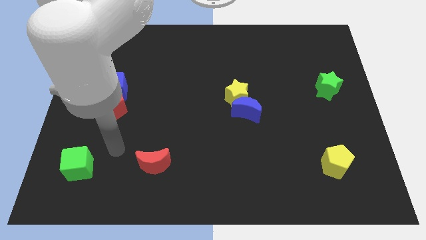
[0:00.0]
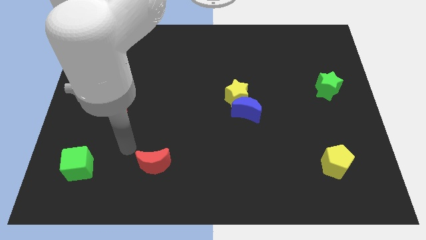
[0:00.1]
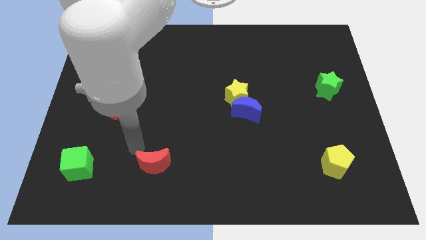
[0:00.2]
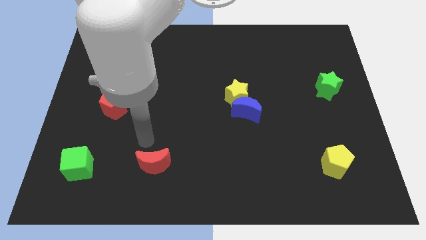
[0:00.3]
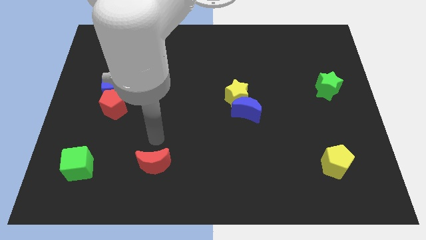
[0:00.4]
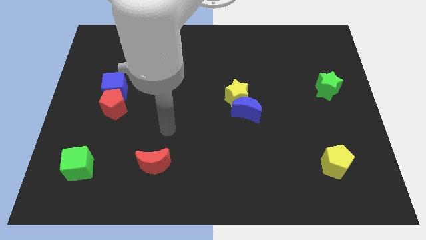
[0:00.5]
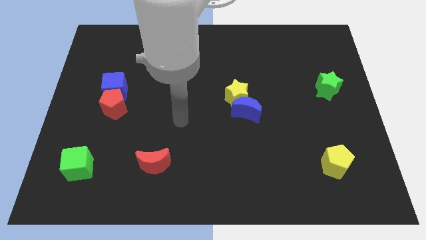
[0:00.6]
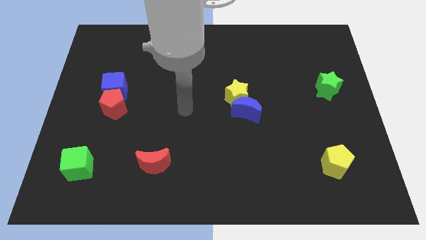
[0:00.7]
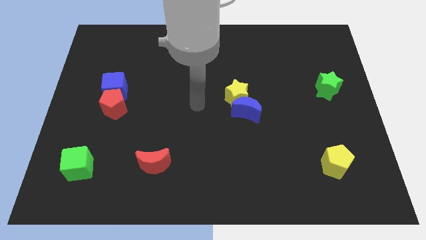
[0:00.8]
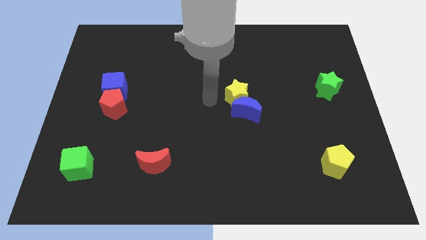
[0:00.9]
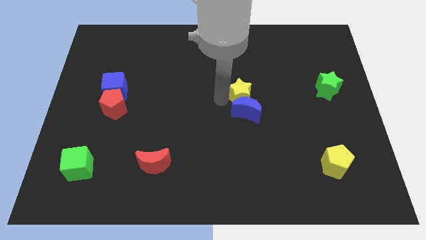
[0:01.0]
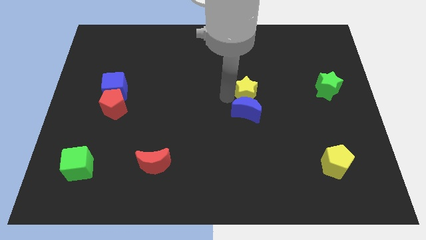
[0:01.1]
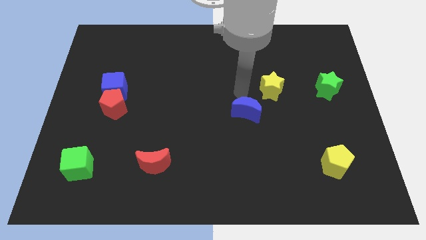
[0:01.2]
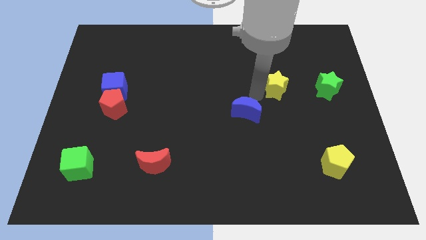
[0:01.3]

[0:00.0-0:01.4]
pull the blue moon apart from the yellow star

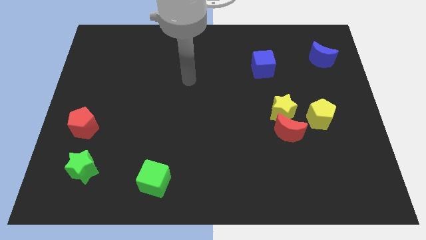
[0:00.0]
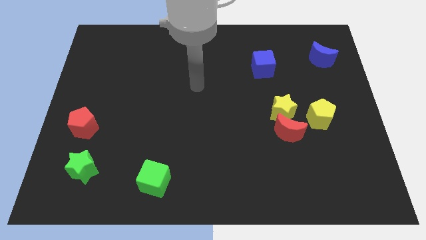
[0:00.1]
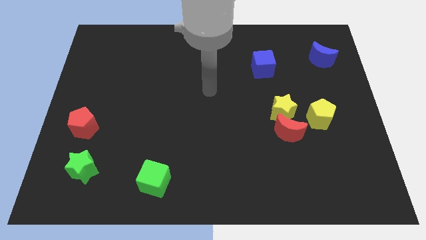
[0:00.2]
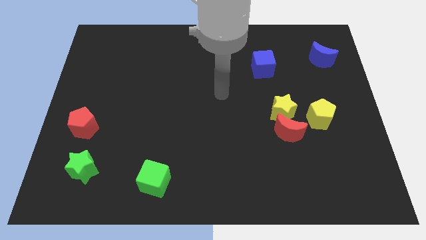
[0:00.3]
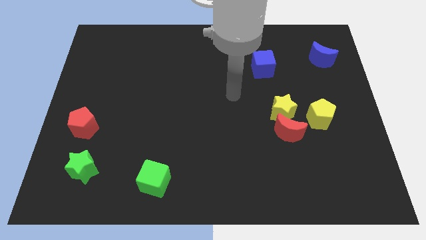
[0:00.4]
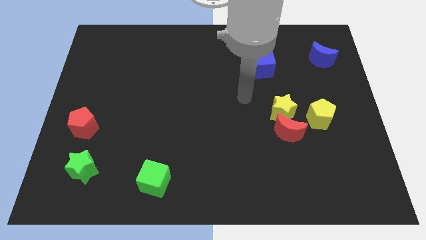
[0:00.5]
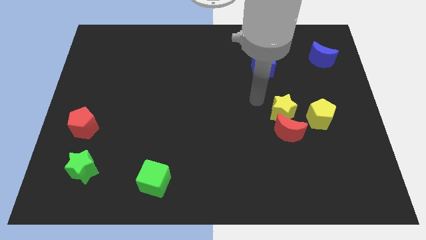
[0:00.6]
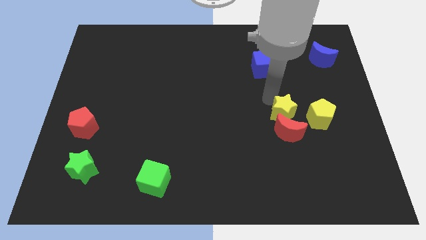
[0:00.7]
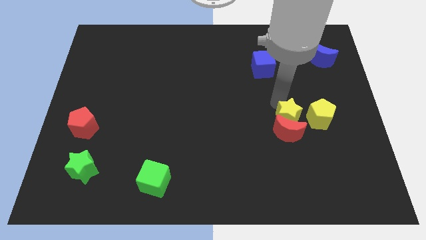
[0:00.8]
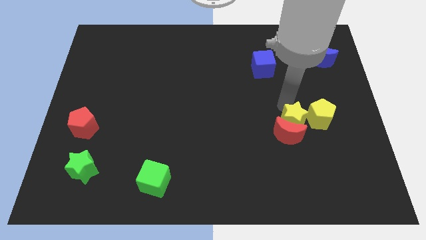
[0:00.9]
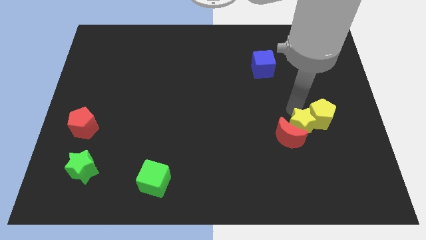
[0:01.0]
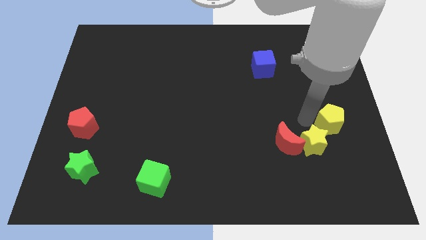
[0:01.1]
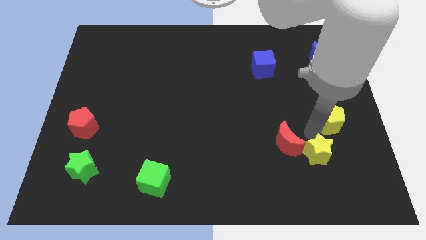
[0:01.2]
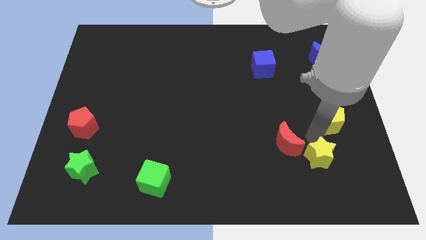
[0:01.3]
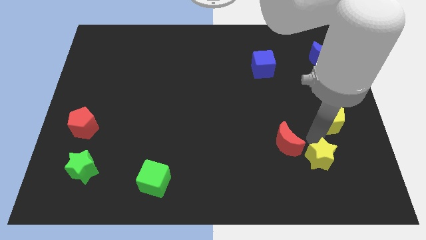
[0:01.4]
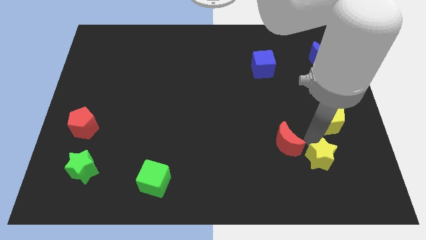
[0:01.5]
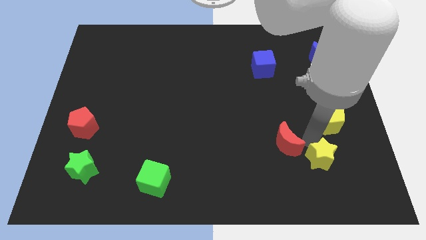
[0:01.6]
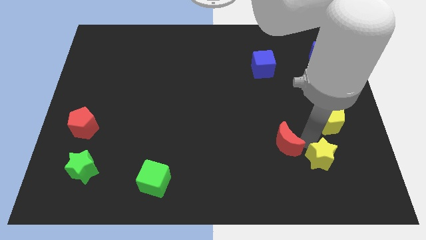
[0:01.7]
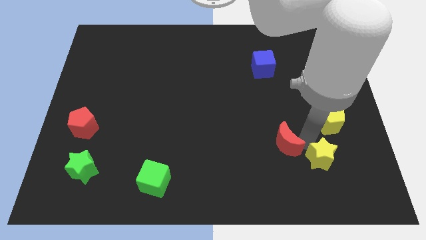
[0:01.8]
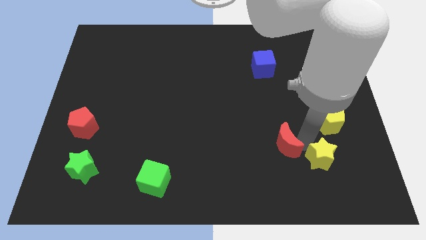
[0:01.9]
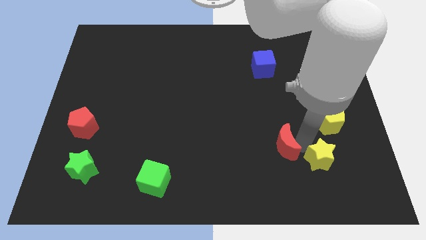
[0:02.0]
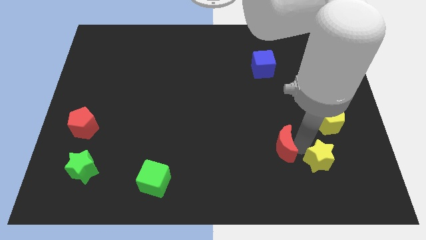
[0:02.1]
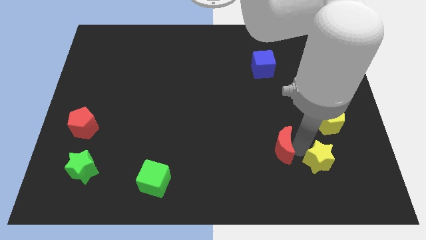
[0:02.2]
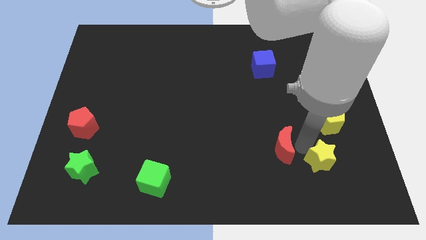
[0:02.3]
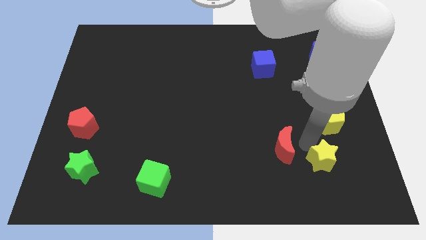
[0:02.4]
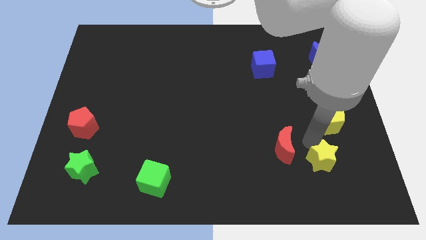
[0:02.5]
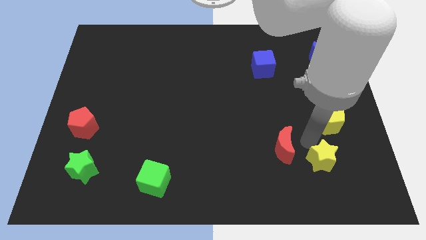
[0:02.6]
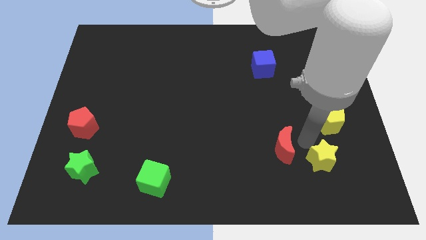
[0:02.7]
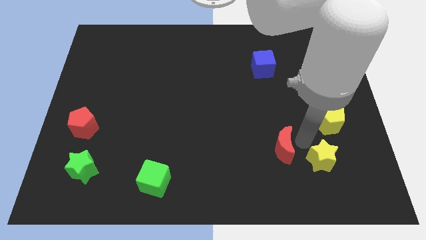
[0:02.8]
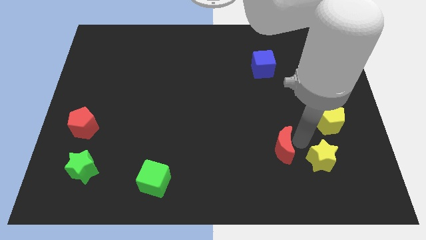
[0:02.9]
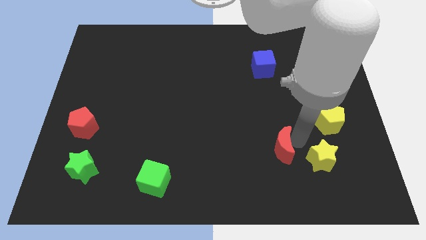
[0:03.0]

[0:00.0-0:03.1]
move the red moon away from the yellow star and yellow pentagon

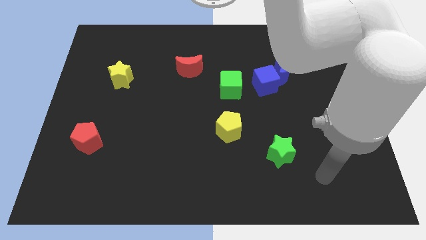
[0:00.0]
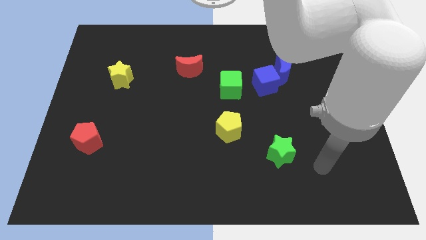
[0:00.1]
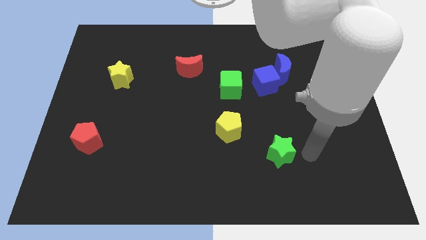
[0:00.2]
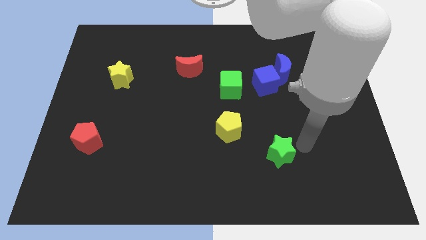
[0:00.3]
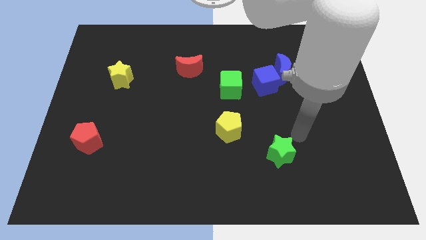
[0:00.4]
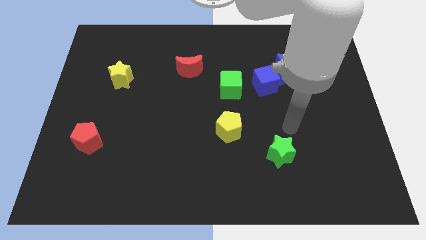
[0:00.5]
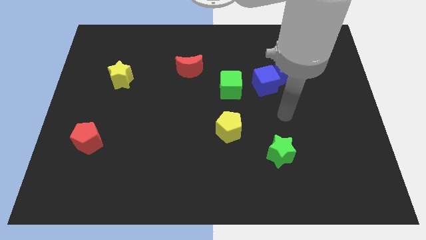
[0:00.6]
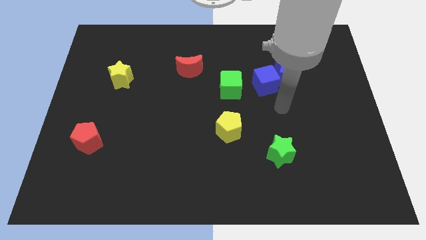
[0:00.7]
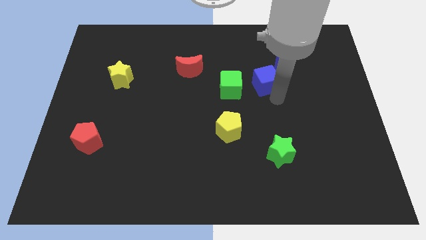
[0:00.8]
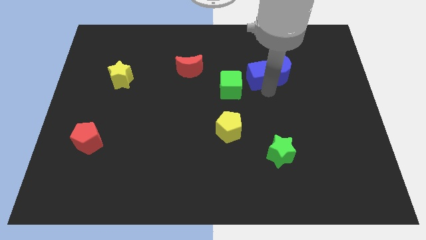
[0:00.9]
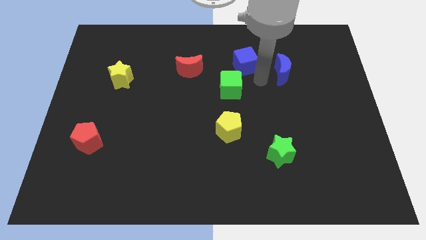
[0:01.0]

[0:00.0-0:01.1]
pull the blue moon apart from the blue cube

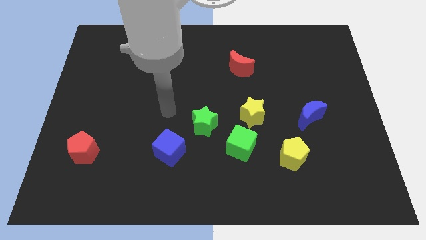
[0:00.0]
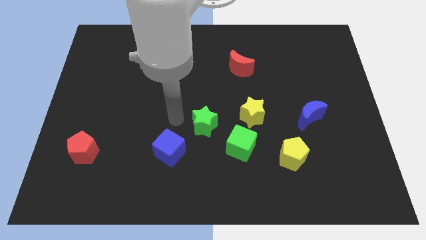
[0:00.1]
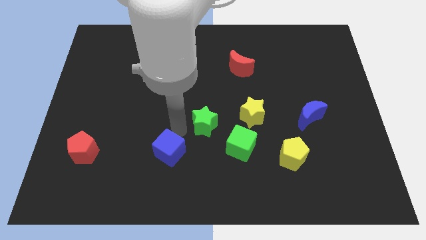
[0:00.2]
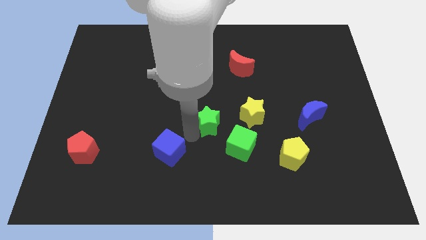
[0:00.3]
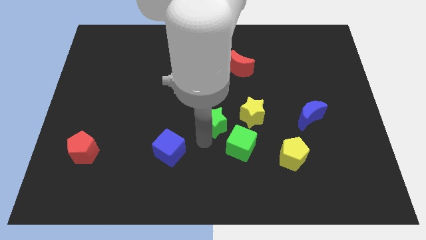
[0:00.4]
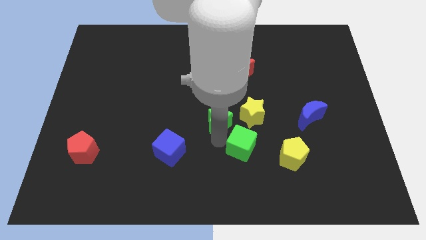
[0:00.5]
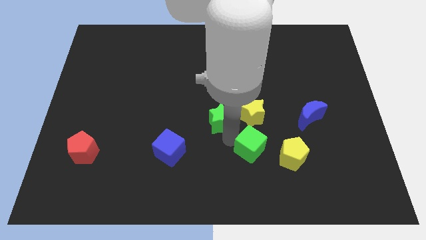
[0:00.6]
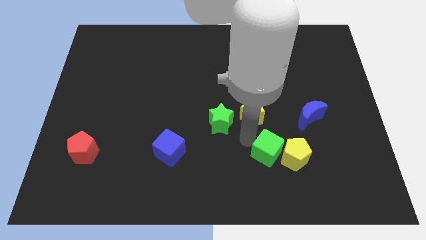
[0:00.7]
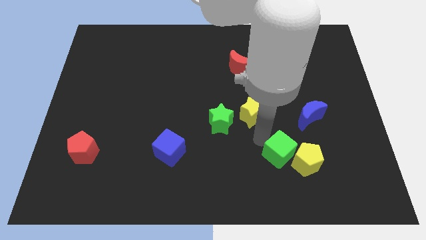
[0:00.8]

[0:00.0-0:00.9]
pull the yellow star apart from the green cube

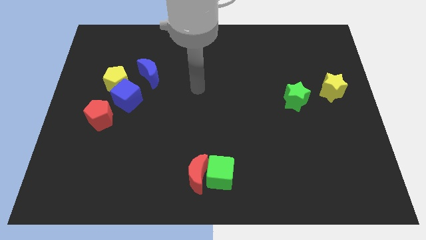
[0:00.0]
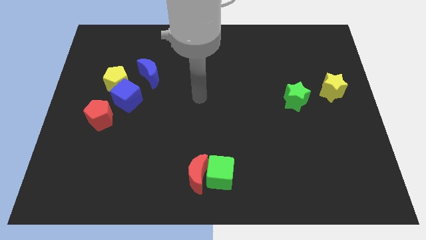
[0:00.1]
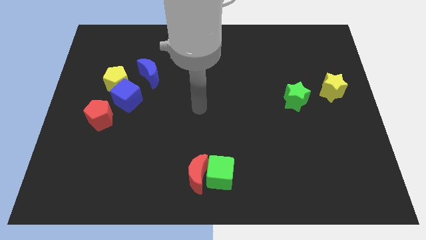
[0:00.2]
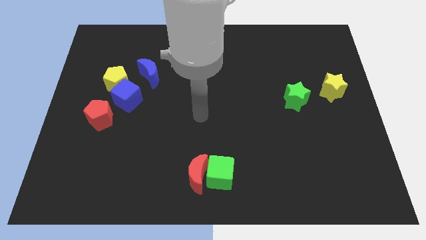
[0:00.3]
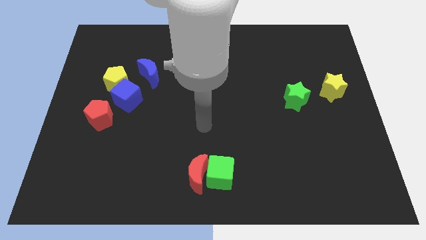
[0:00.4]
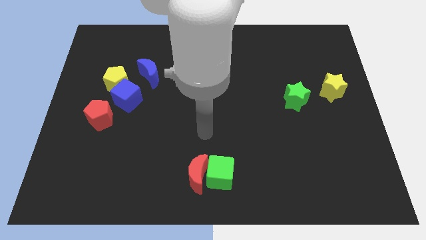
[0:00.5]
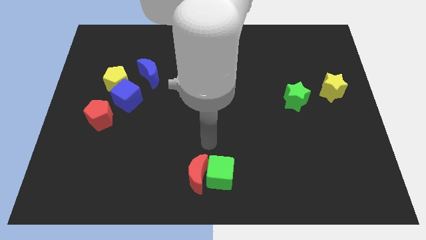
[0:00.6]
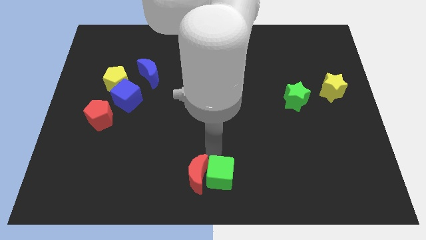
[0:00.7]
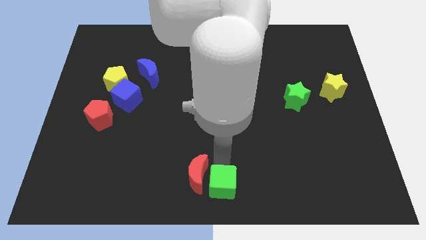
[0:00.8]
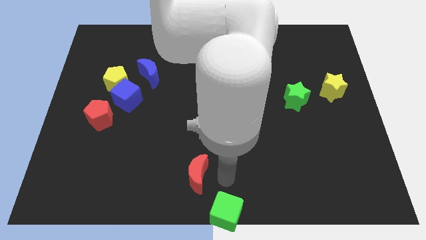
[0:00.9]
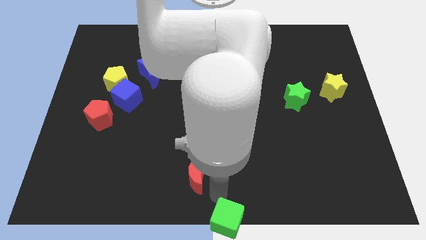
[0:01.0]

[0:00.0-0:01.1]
separate the red moon from the green cube

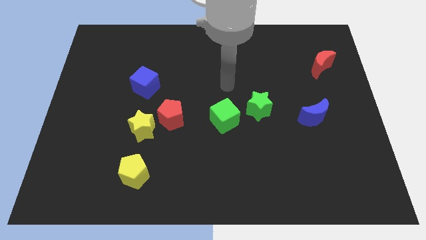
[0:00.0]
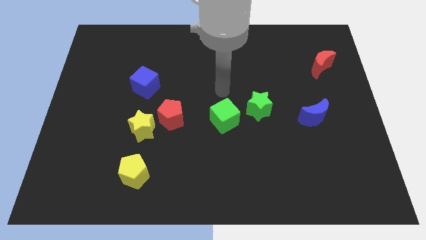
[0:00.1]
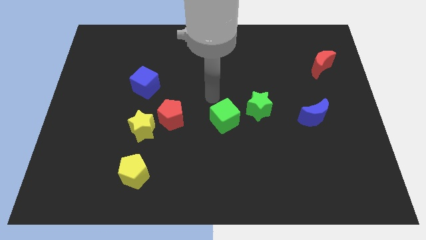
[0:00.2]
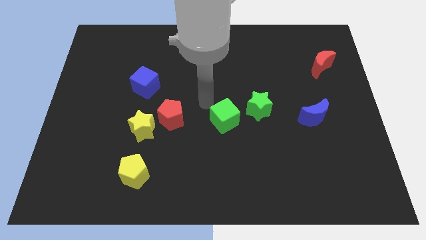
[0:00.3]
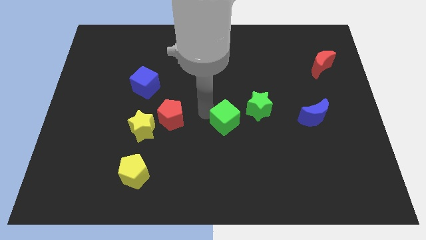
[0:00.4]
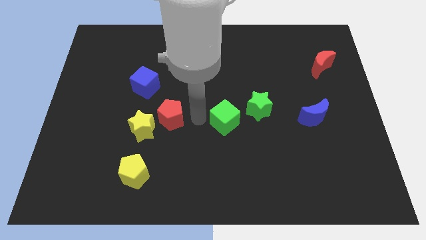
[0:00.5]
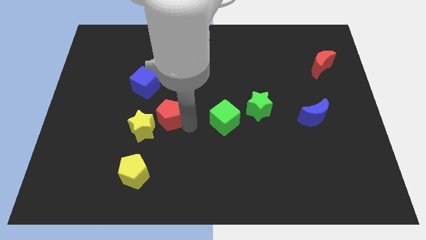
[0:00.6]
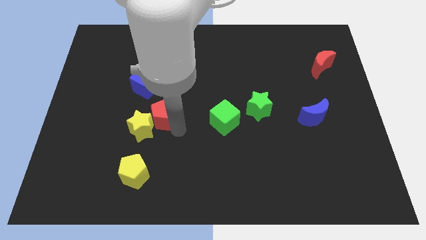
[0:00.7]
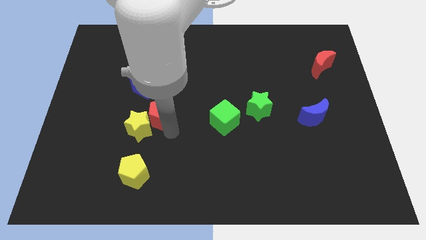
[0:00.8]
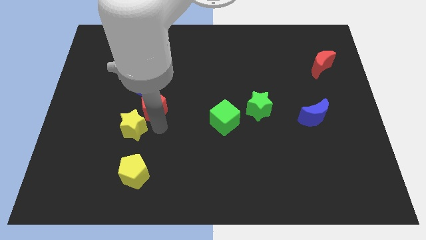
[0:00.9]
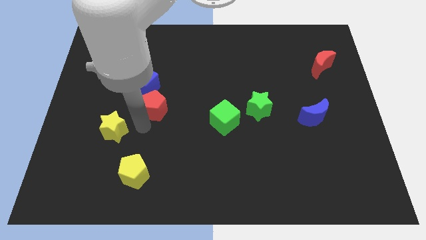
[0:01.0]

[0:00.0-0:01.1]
move the red pentagon away from the yellow star

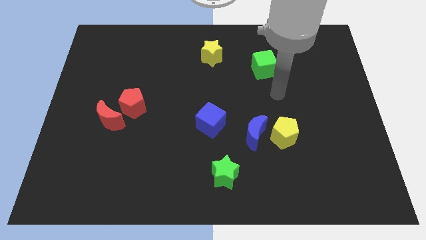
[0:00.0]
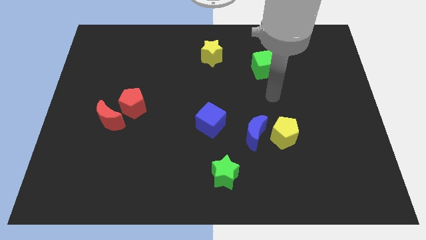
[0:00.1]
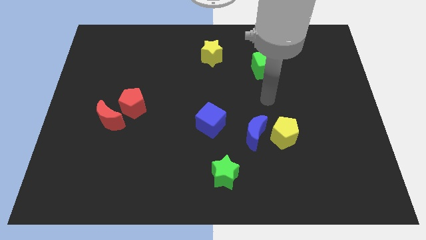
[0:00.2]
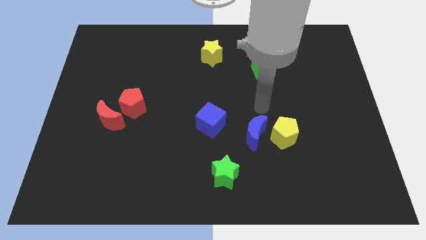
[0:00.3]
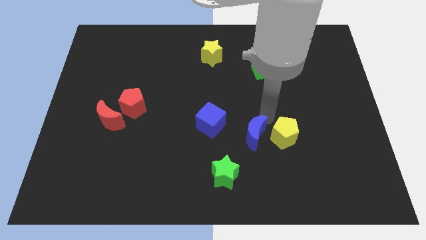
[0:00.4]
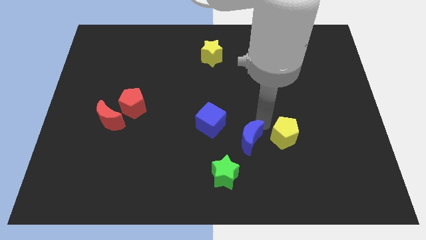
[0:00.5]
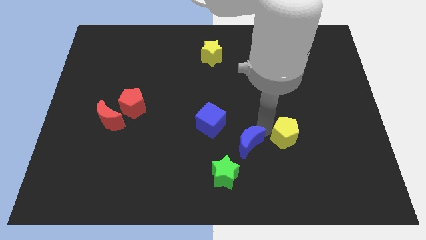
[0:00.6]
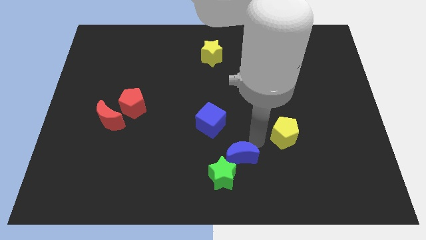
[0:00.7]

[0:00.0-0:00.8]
pull the yellow pentagon apart from the blue moon
